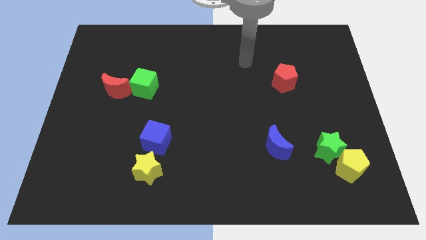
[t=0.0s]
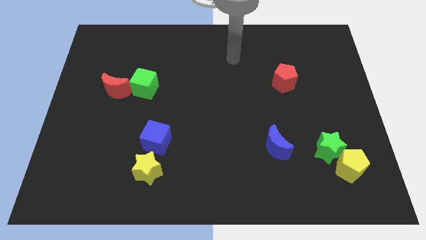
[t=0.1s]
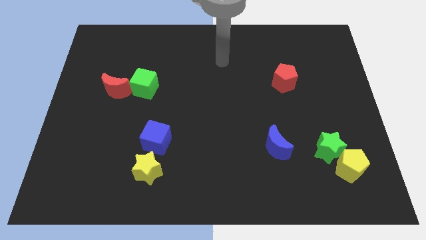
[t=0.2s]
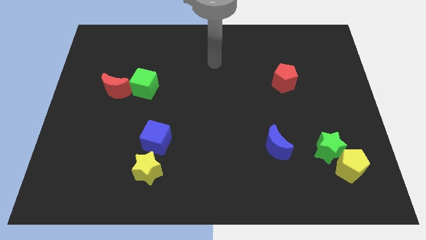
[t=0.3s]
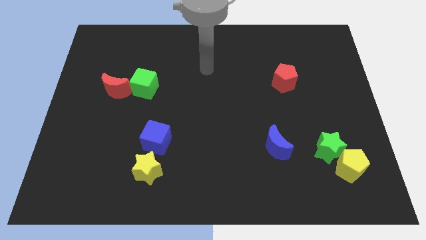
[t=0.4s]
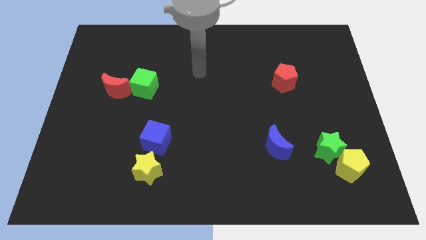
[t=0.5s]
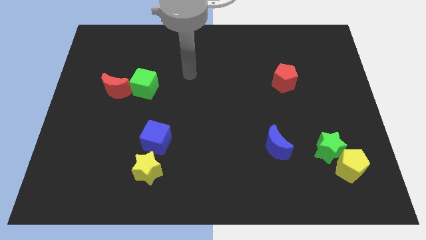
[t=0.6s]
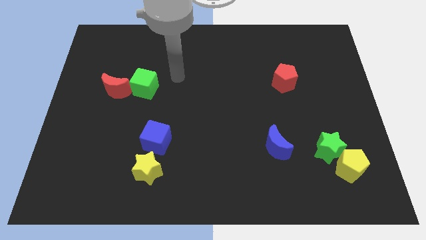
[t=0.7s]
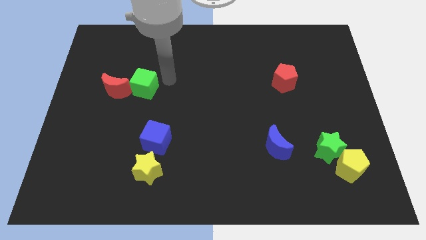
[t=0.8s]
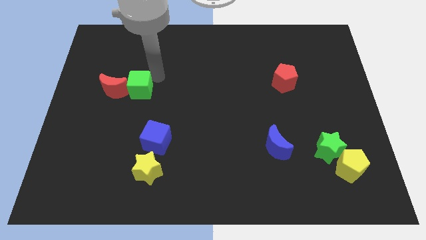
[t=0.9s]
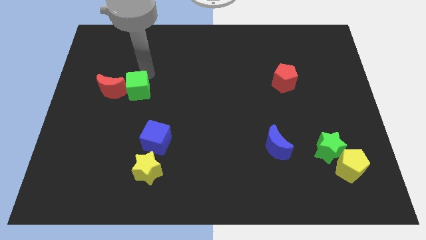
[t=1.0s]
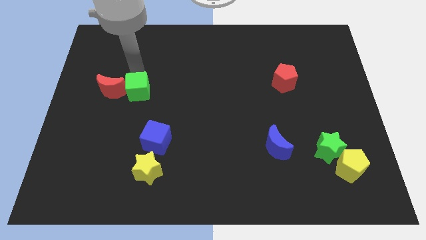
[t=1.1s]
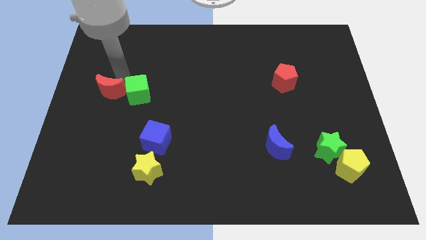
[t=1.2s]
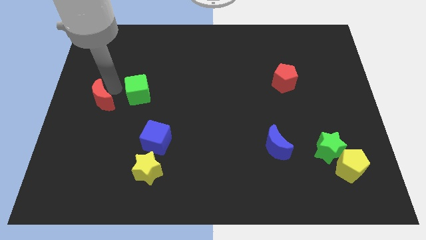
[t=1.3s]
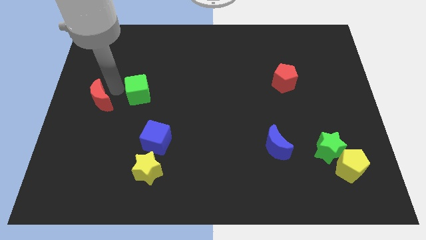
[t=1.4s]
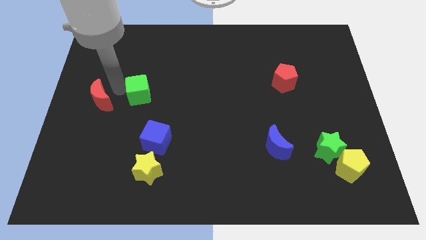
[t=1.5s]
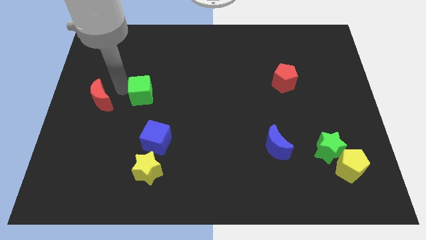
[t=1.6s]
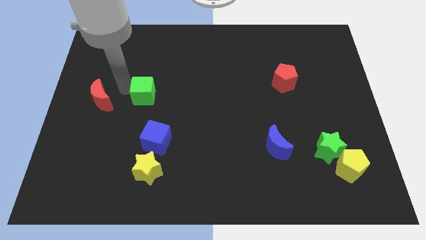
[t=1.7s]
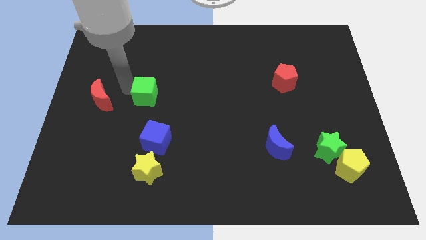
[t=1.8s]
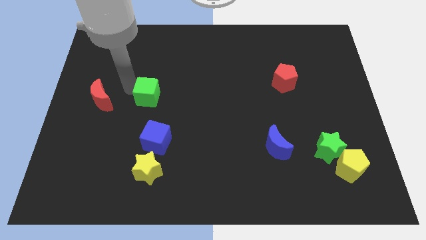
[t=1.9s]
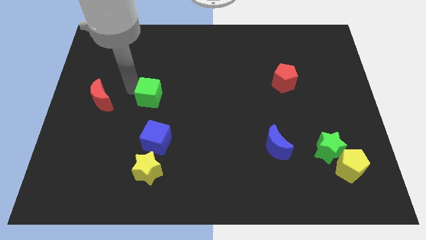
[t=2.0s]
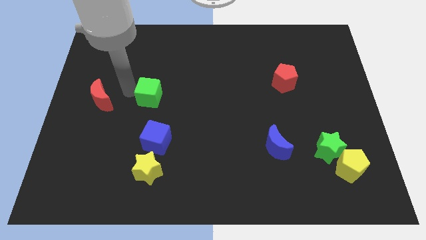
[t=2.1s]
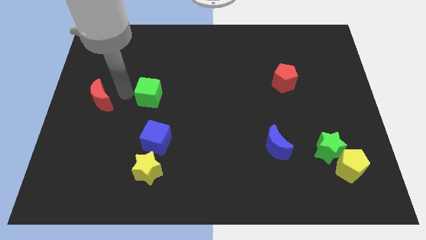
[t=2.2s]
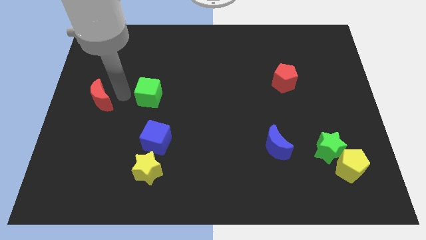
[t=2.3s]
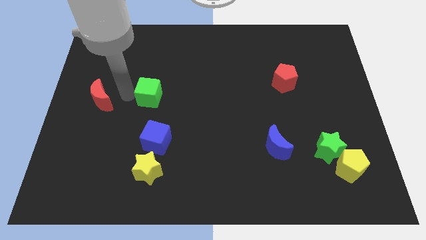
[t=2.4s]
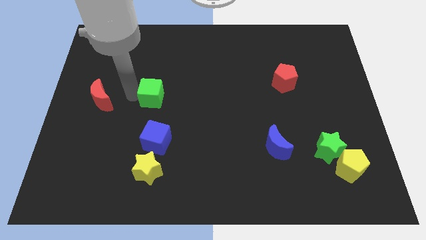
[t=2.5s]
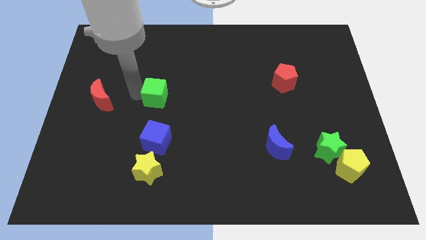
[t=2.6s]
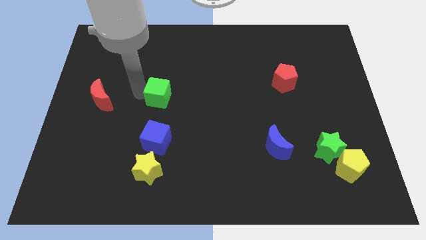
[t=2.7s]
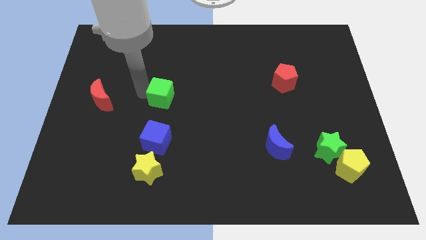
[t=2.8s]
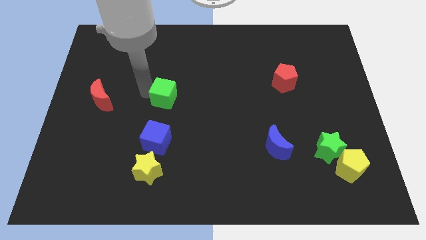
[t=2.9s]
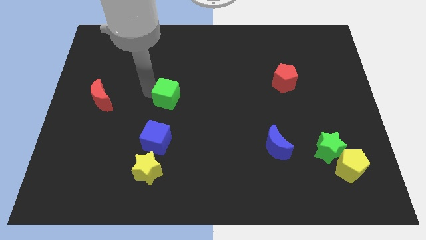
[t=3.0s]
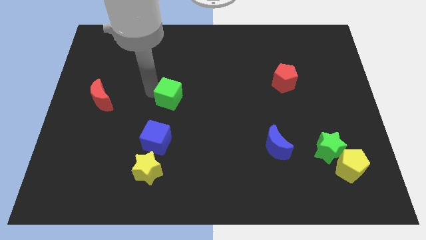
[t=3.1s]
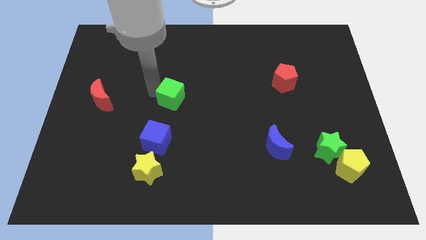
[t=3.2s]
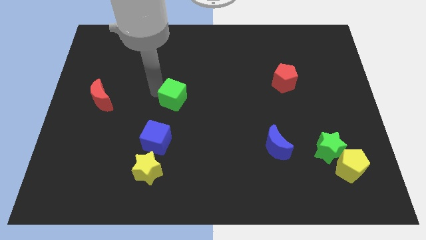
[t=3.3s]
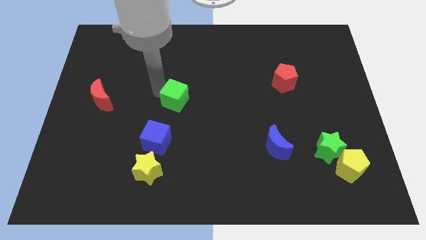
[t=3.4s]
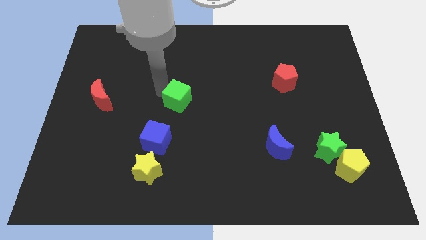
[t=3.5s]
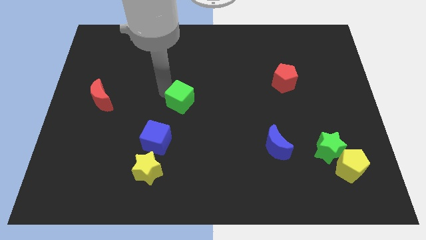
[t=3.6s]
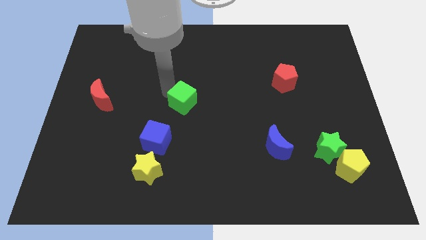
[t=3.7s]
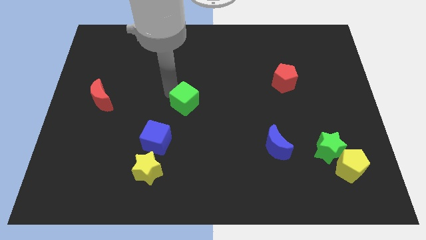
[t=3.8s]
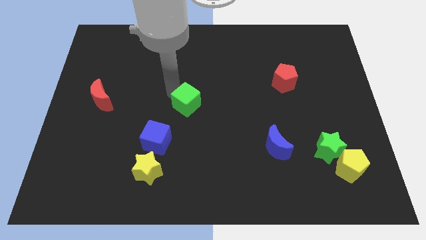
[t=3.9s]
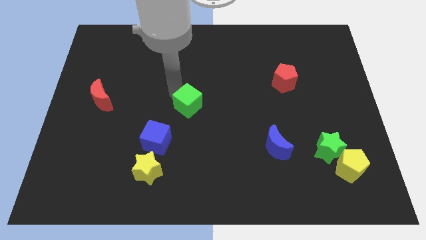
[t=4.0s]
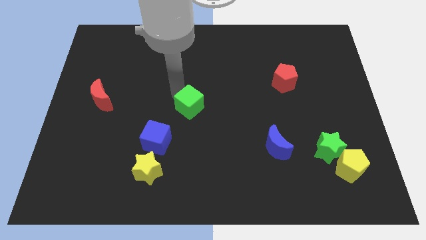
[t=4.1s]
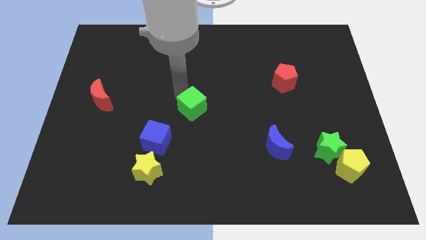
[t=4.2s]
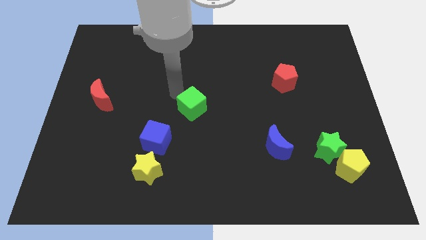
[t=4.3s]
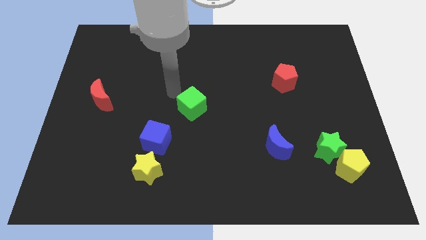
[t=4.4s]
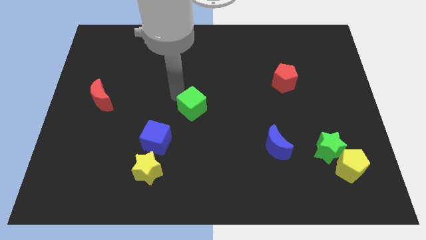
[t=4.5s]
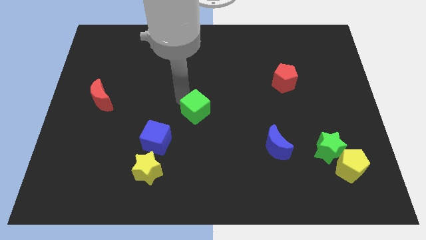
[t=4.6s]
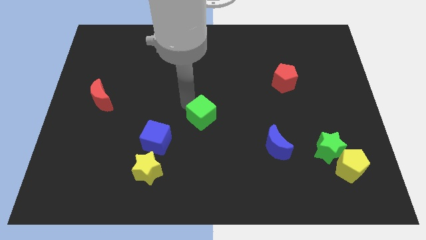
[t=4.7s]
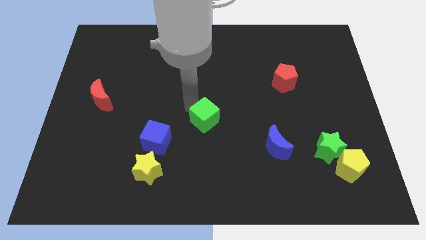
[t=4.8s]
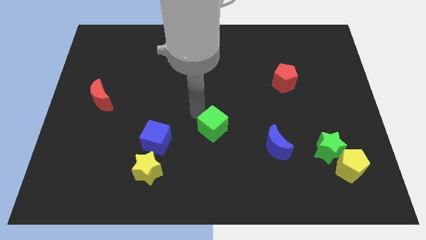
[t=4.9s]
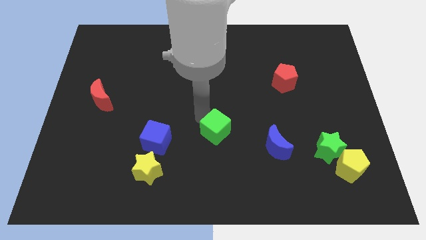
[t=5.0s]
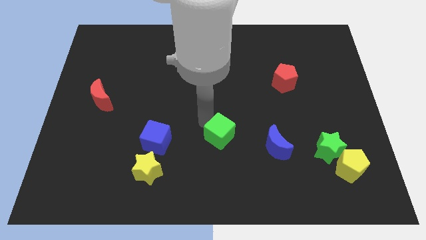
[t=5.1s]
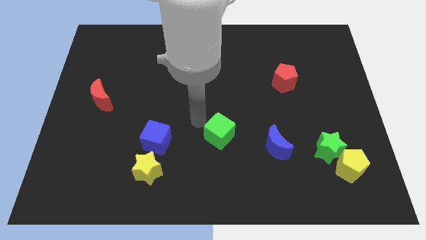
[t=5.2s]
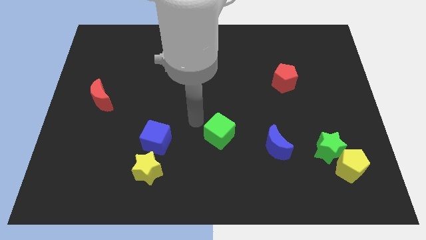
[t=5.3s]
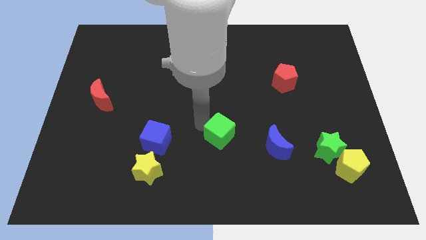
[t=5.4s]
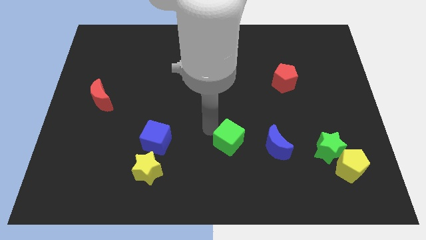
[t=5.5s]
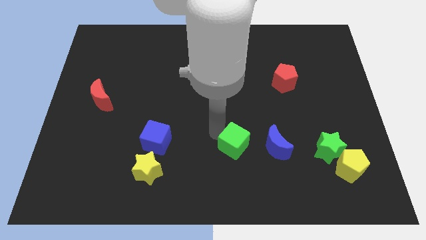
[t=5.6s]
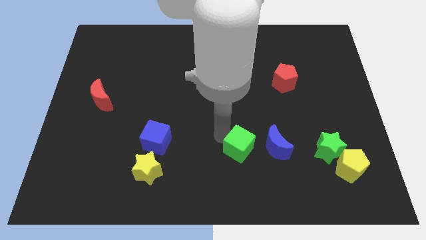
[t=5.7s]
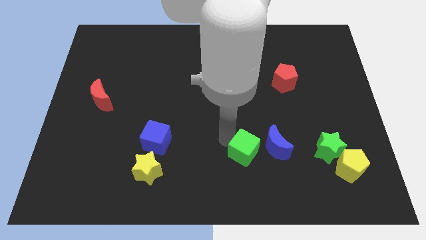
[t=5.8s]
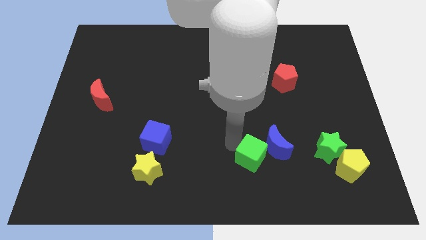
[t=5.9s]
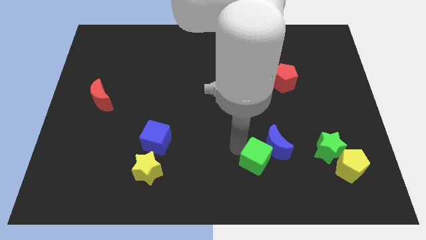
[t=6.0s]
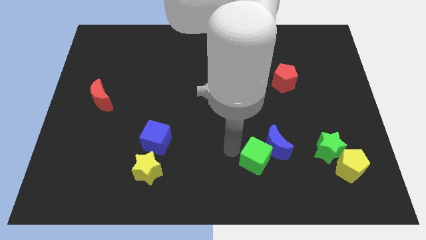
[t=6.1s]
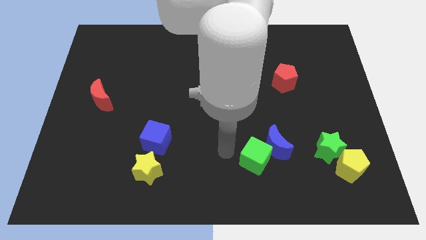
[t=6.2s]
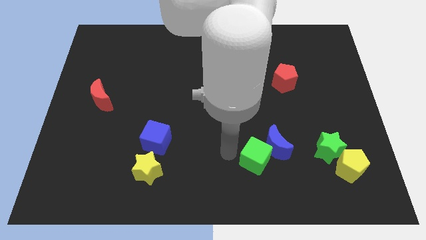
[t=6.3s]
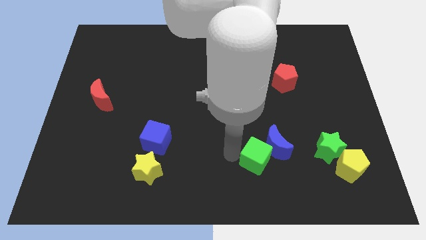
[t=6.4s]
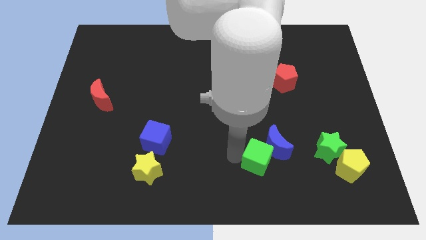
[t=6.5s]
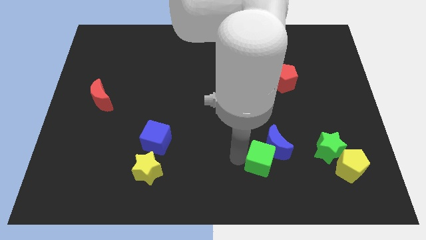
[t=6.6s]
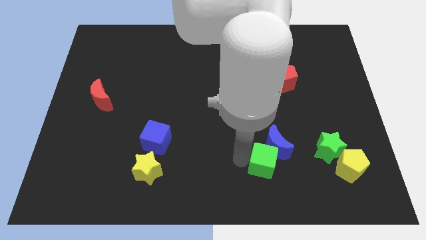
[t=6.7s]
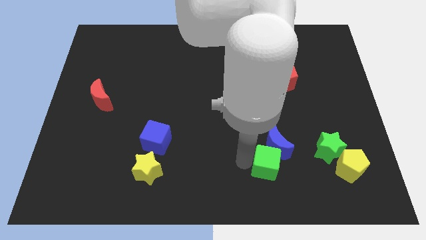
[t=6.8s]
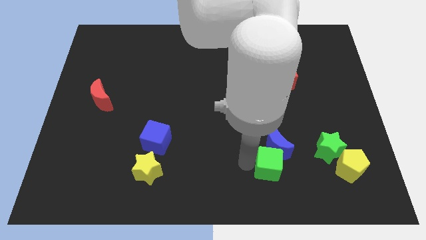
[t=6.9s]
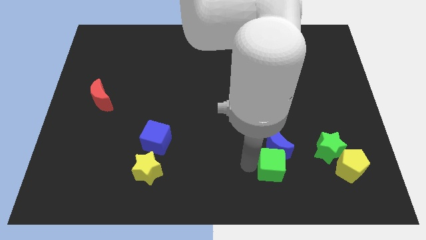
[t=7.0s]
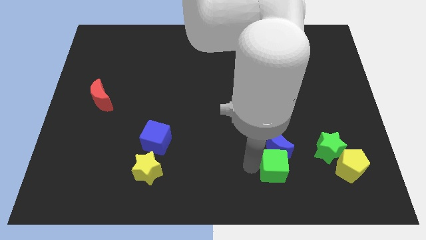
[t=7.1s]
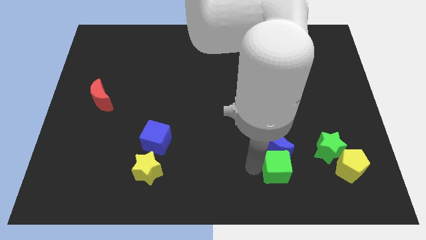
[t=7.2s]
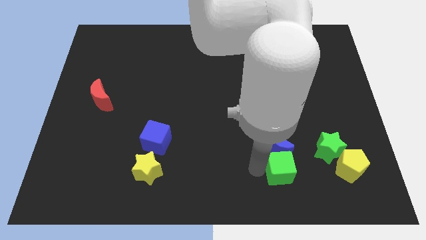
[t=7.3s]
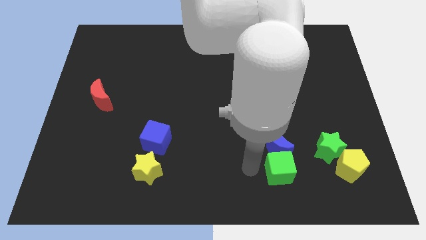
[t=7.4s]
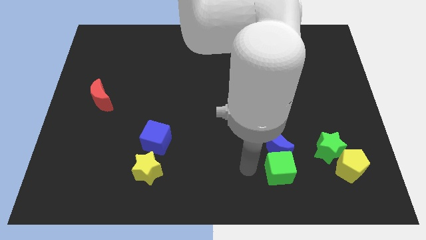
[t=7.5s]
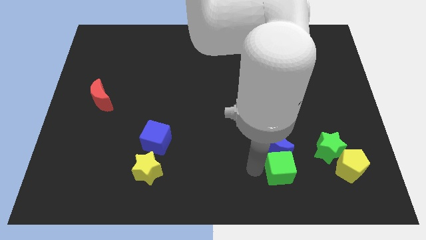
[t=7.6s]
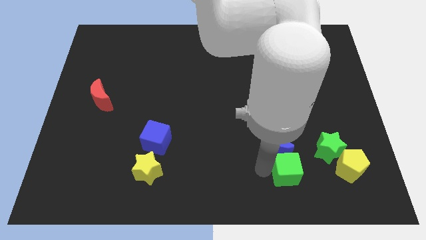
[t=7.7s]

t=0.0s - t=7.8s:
put the green cube to the bottom left side of the green star

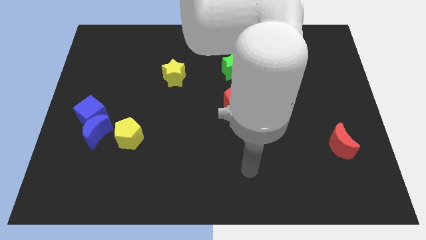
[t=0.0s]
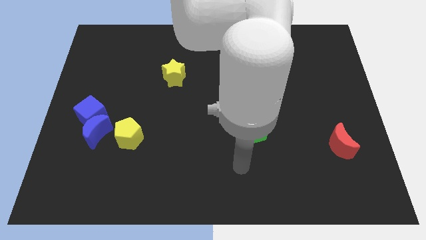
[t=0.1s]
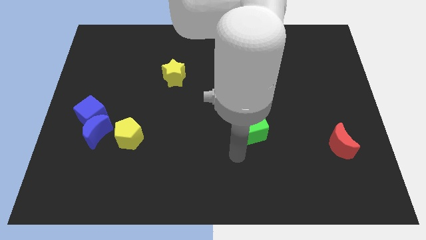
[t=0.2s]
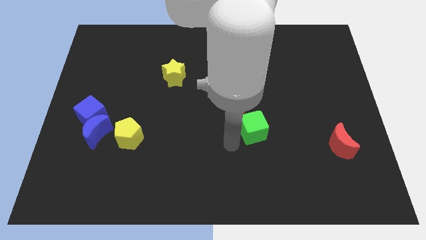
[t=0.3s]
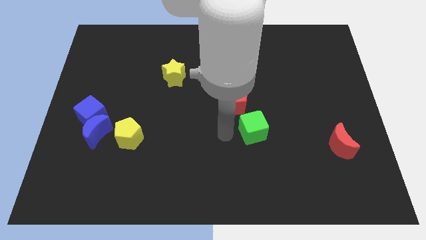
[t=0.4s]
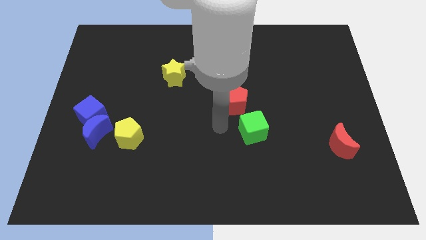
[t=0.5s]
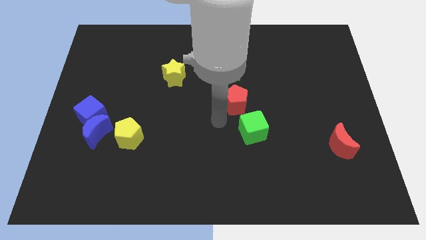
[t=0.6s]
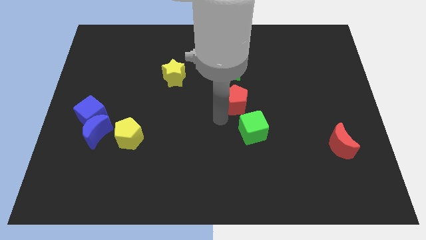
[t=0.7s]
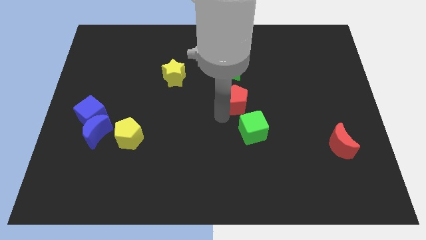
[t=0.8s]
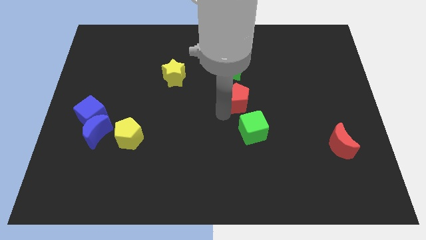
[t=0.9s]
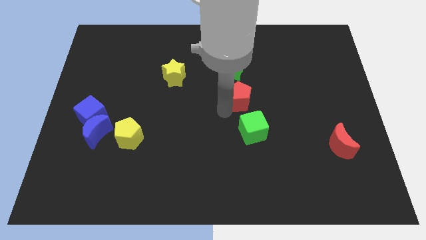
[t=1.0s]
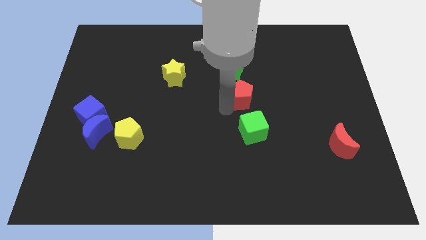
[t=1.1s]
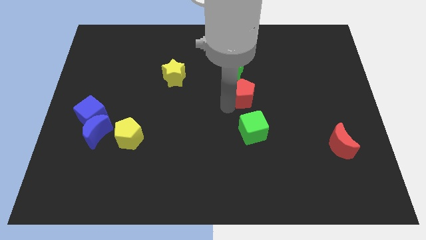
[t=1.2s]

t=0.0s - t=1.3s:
put the red pentagon to the bottom right side of the green star
